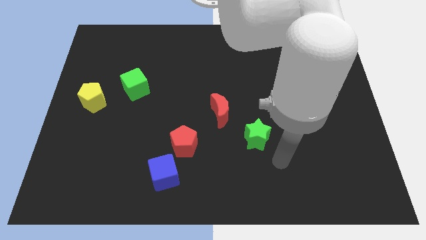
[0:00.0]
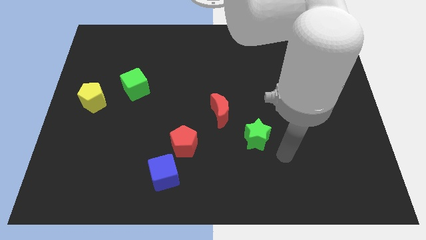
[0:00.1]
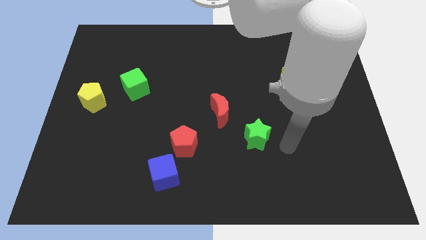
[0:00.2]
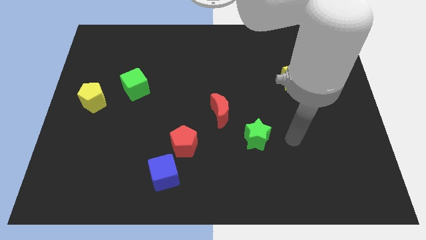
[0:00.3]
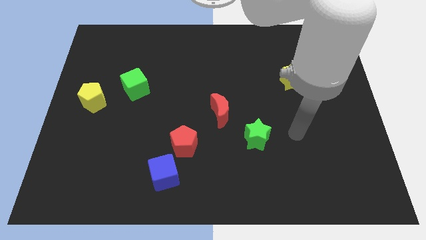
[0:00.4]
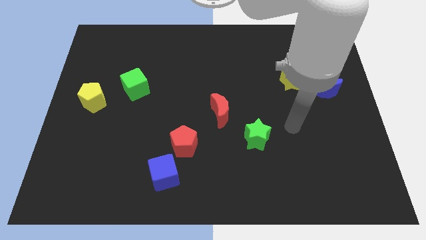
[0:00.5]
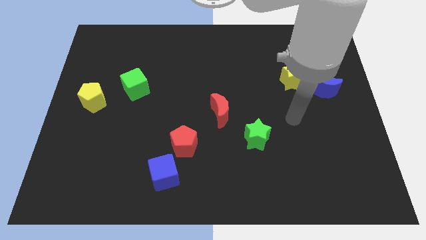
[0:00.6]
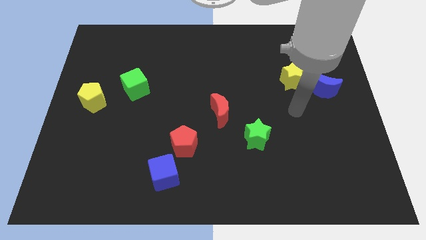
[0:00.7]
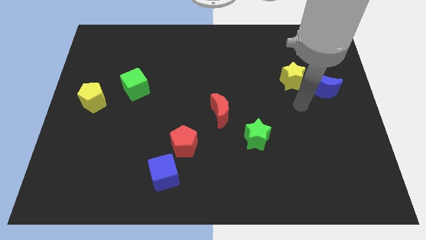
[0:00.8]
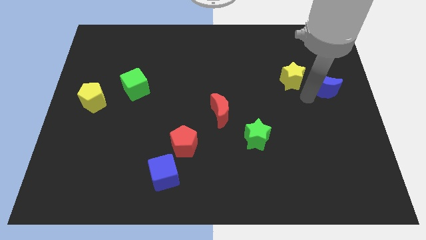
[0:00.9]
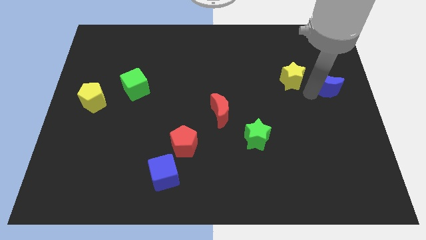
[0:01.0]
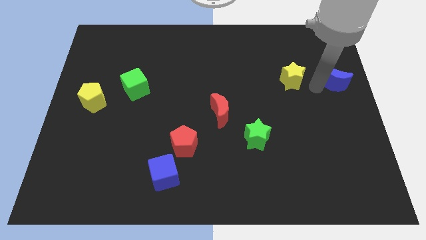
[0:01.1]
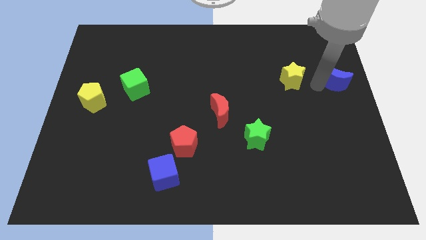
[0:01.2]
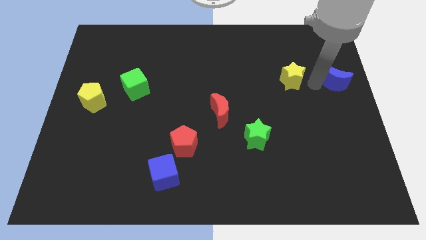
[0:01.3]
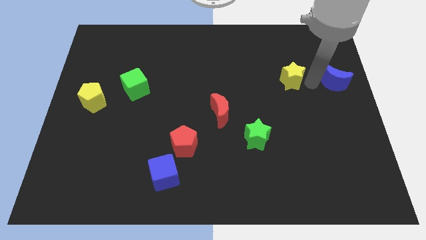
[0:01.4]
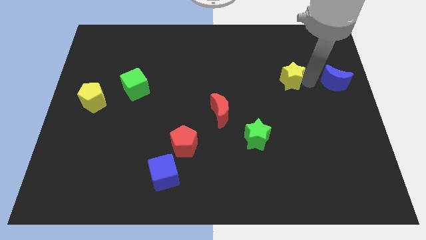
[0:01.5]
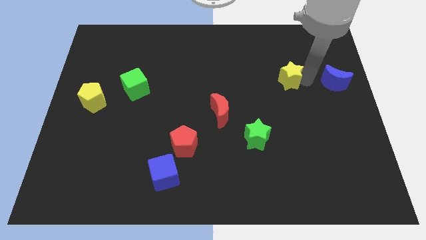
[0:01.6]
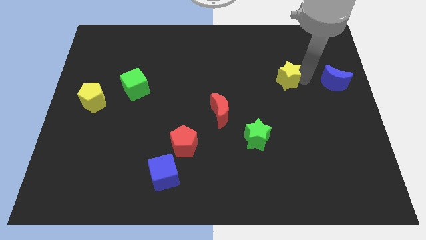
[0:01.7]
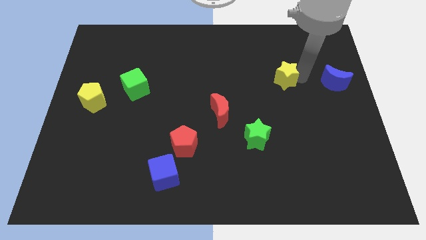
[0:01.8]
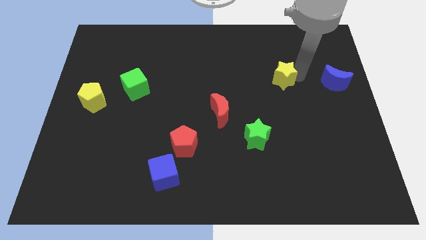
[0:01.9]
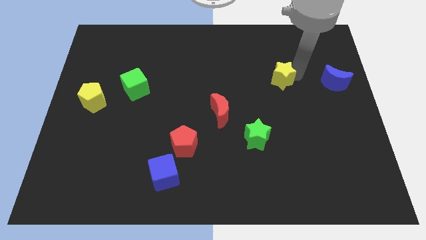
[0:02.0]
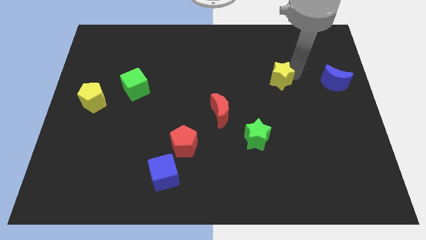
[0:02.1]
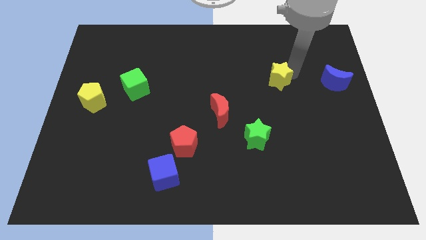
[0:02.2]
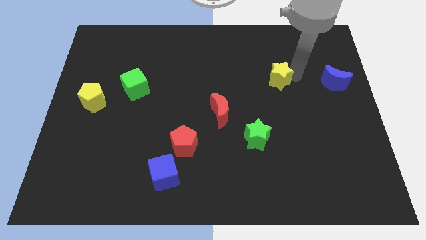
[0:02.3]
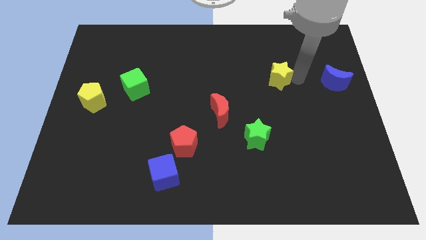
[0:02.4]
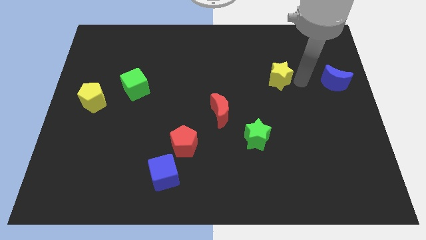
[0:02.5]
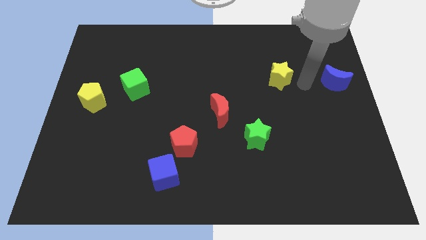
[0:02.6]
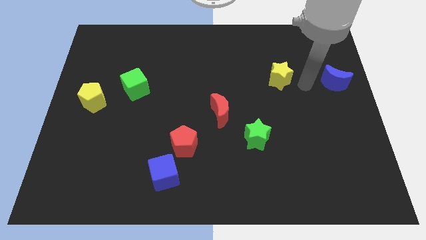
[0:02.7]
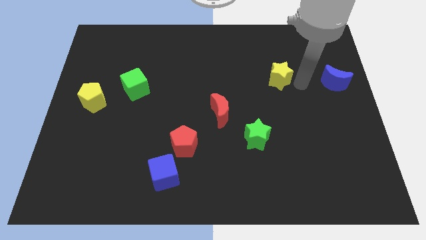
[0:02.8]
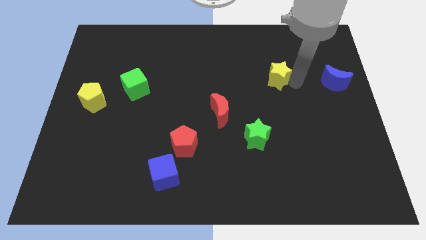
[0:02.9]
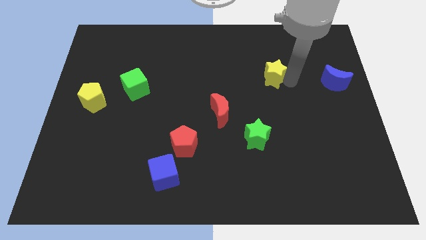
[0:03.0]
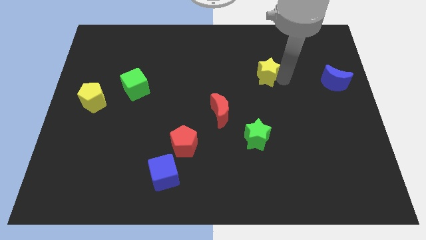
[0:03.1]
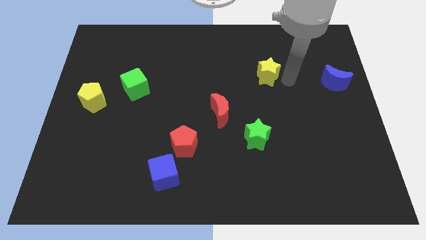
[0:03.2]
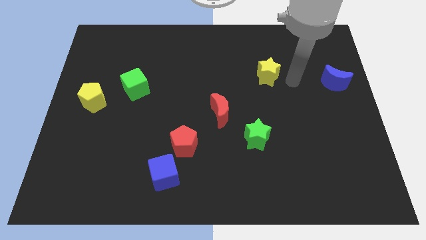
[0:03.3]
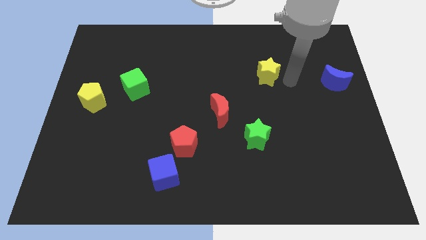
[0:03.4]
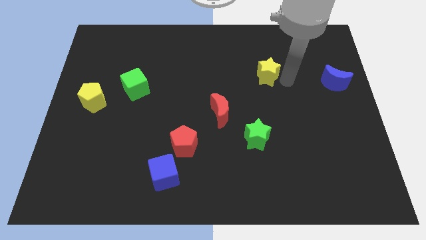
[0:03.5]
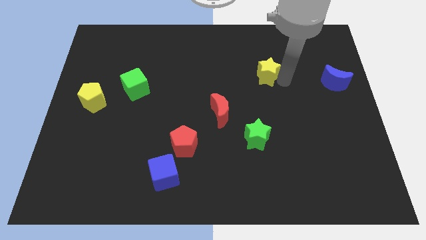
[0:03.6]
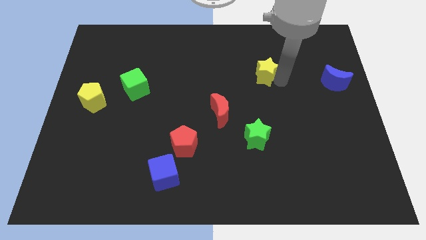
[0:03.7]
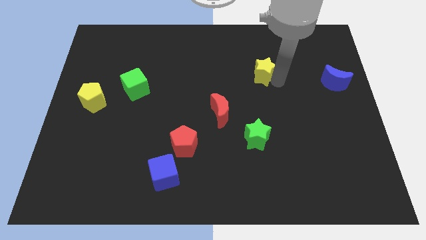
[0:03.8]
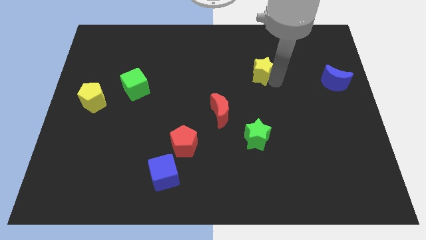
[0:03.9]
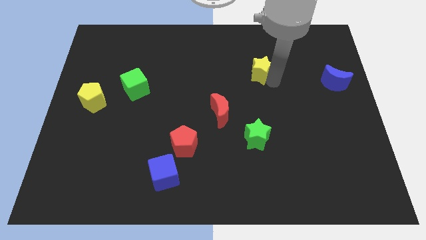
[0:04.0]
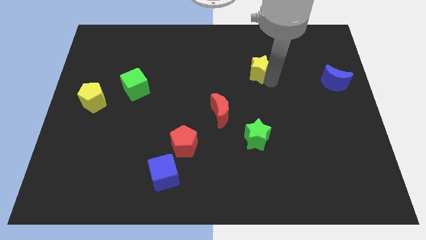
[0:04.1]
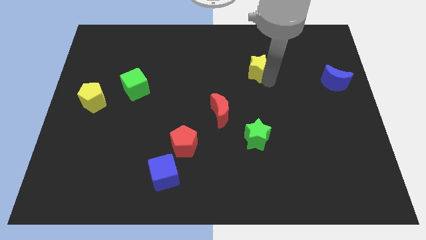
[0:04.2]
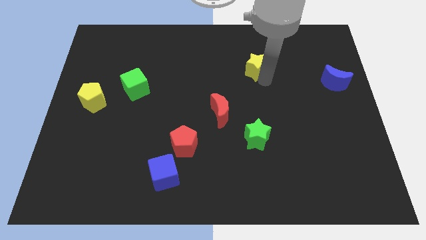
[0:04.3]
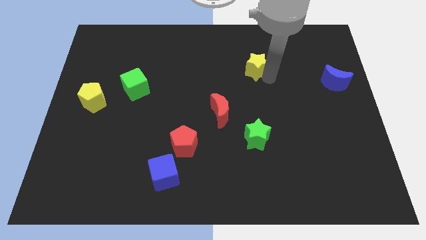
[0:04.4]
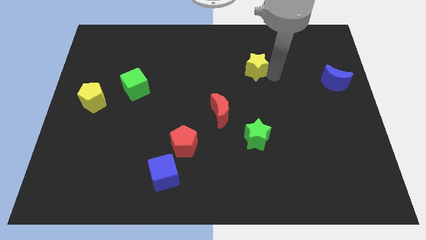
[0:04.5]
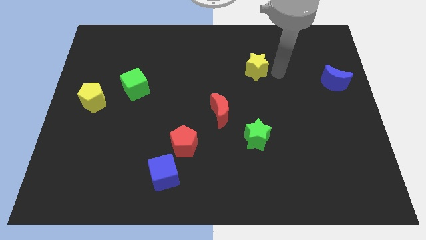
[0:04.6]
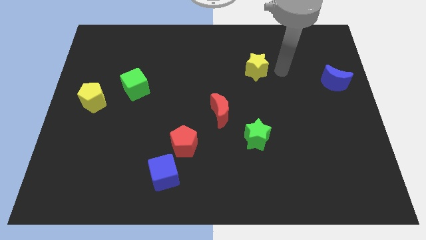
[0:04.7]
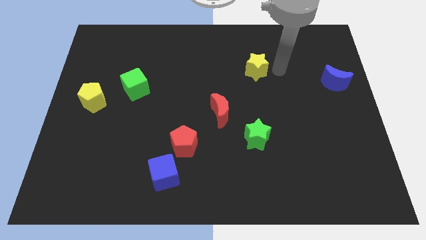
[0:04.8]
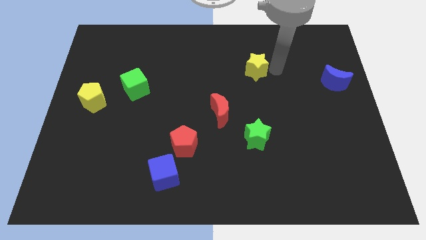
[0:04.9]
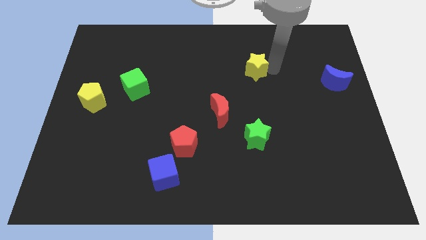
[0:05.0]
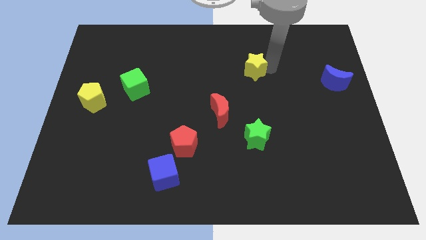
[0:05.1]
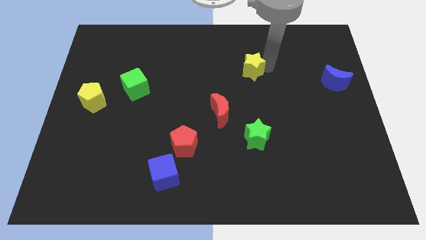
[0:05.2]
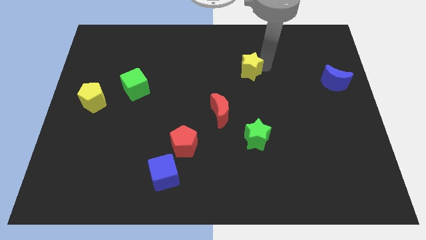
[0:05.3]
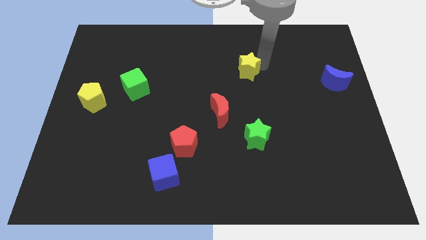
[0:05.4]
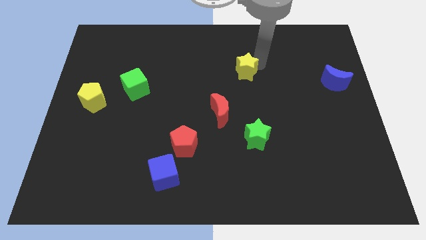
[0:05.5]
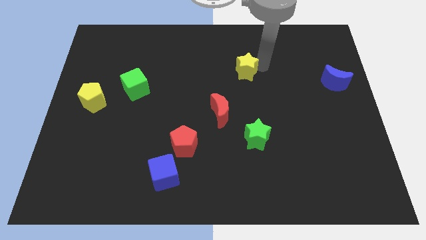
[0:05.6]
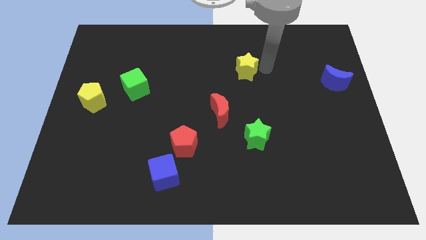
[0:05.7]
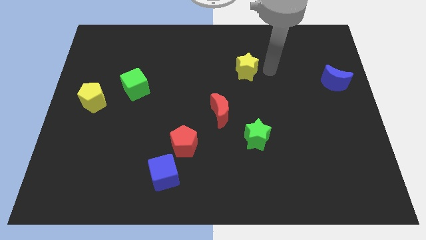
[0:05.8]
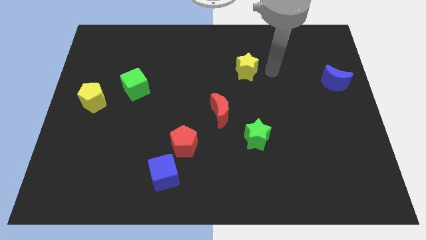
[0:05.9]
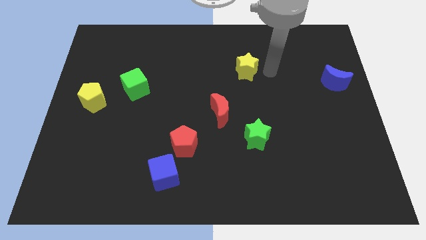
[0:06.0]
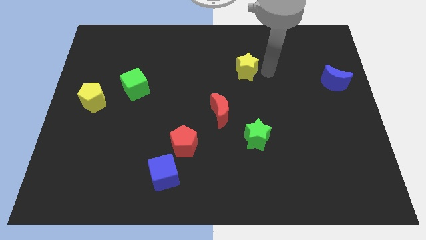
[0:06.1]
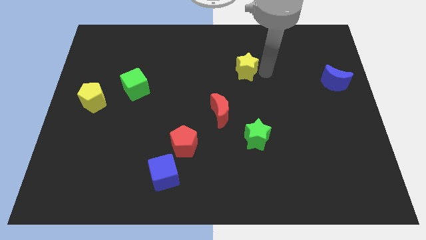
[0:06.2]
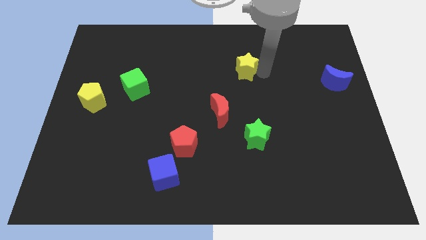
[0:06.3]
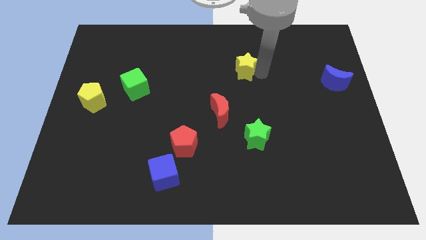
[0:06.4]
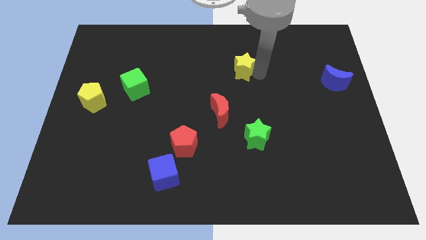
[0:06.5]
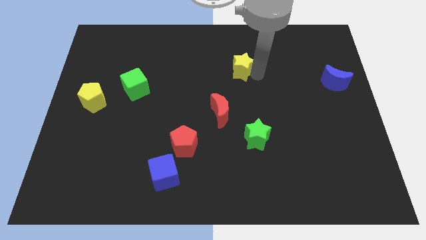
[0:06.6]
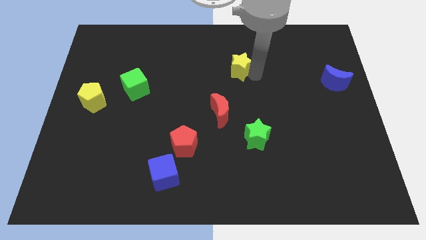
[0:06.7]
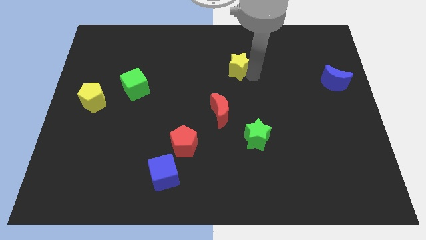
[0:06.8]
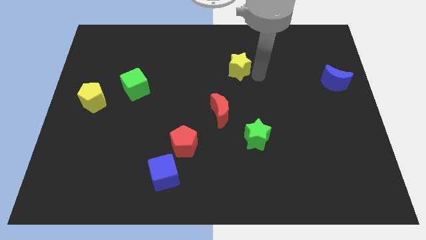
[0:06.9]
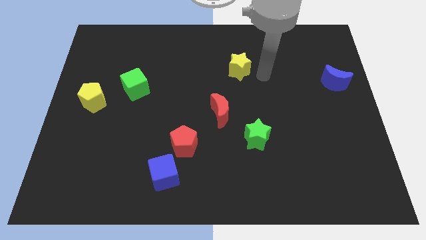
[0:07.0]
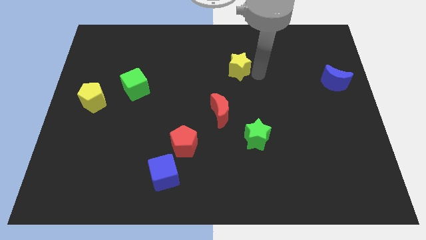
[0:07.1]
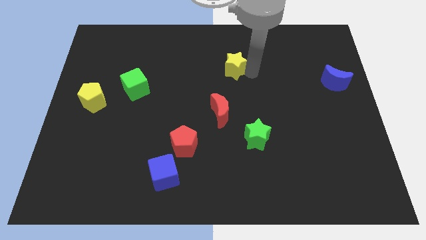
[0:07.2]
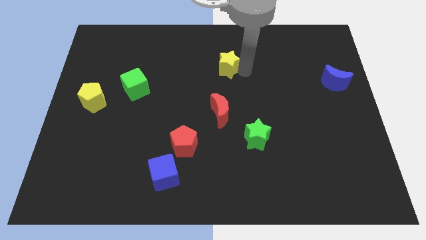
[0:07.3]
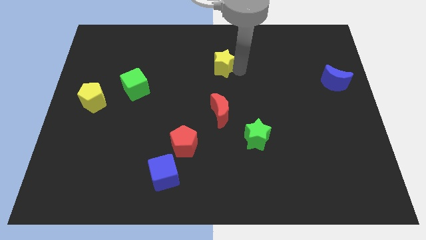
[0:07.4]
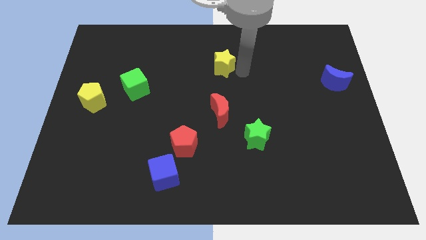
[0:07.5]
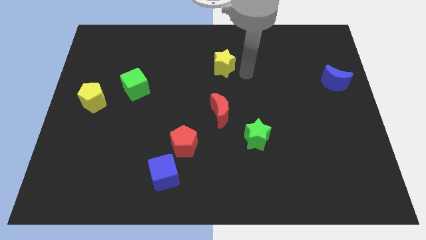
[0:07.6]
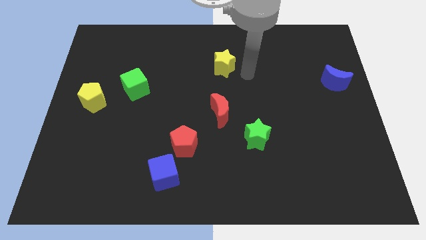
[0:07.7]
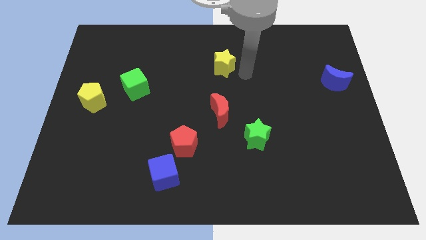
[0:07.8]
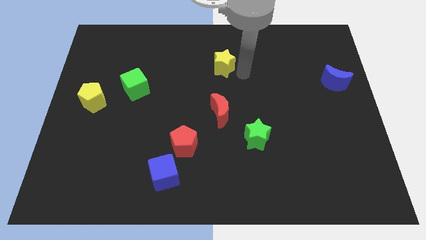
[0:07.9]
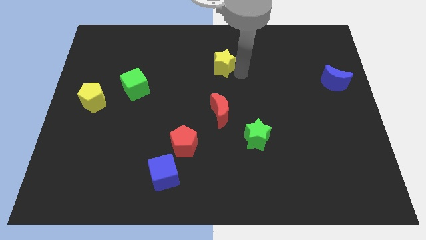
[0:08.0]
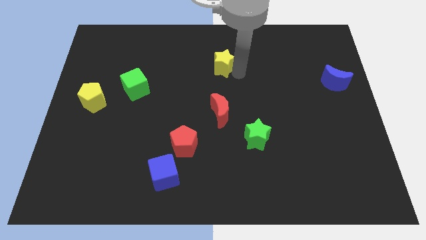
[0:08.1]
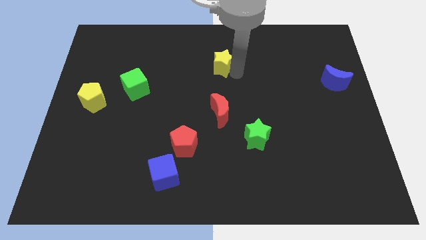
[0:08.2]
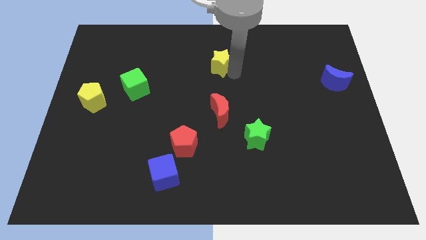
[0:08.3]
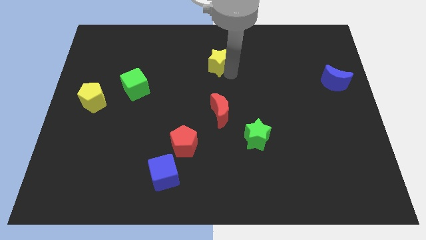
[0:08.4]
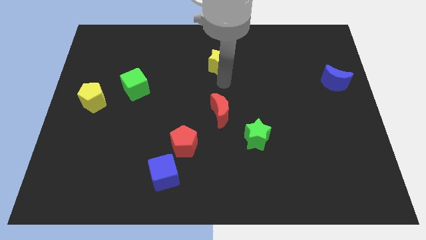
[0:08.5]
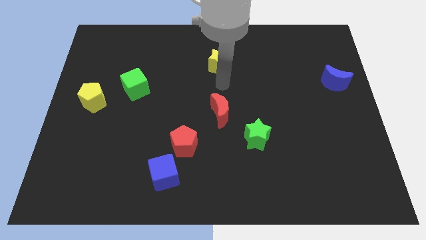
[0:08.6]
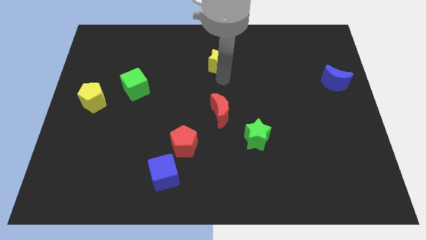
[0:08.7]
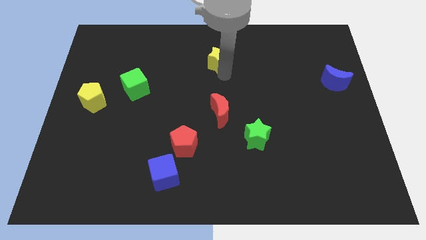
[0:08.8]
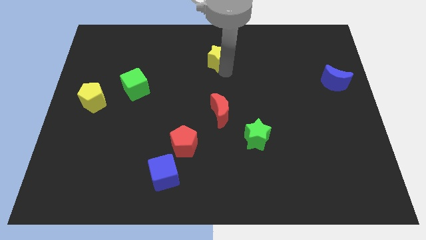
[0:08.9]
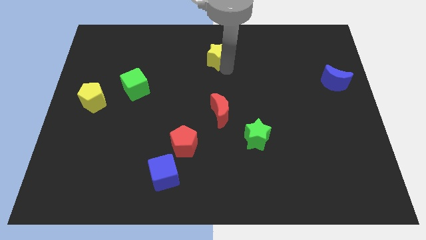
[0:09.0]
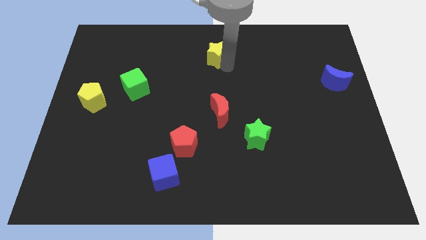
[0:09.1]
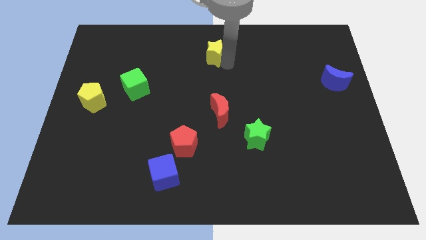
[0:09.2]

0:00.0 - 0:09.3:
move the yellow star to the top
